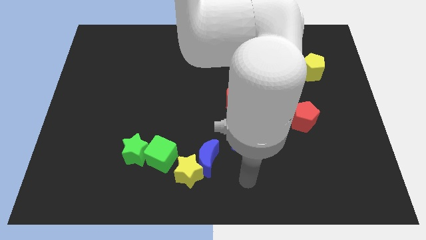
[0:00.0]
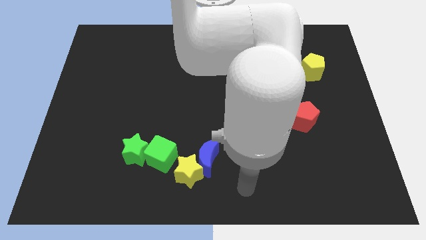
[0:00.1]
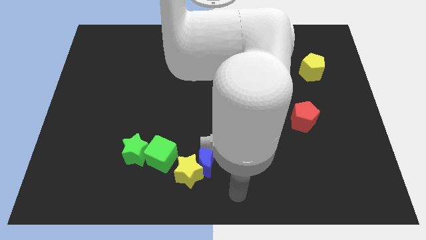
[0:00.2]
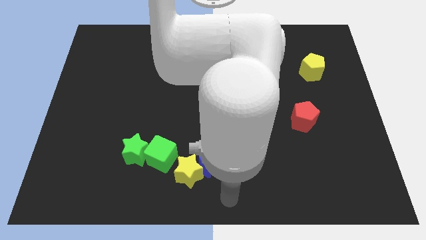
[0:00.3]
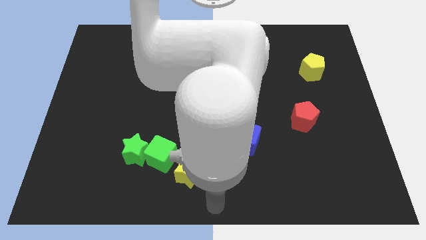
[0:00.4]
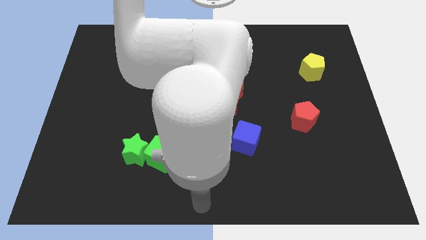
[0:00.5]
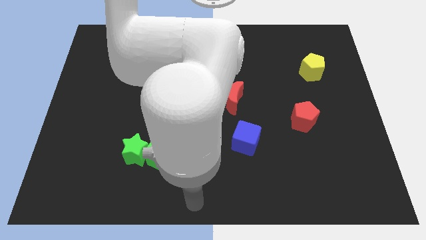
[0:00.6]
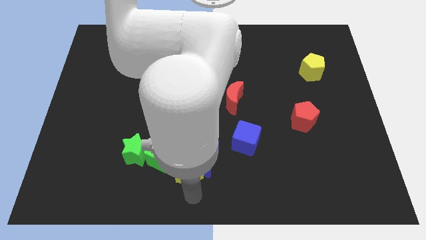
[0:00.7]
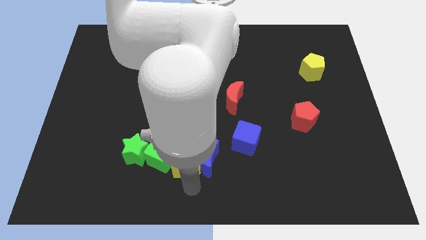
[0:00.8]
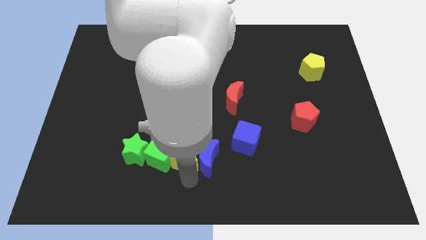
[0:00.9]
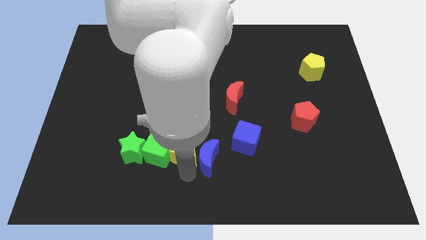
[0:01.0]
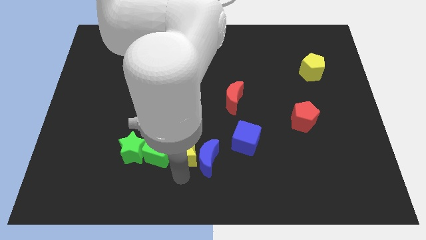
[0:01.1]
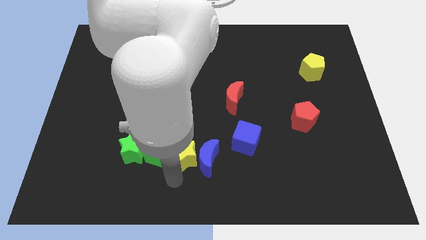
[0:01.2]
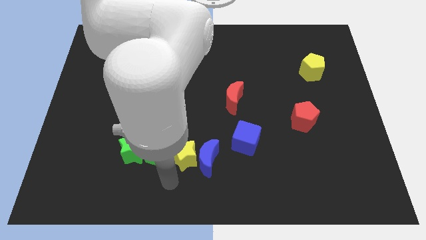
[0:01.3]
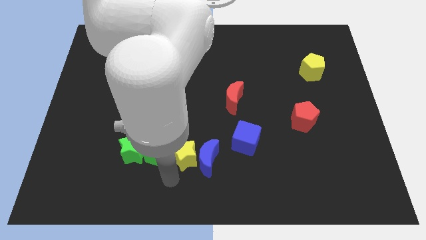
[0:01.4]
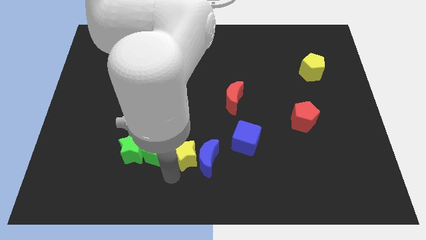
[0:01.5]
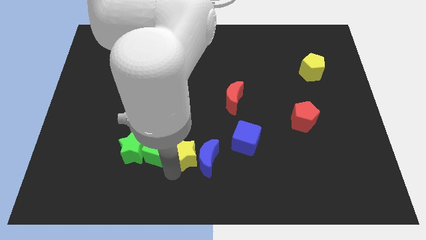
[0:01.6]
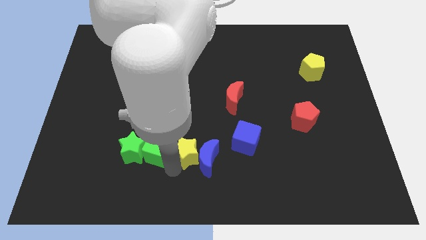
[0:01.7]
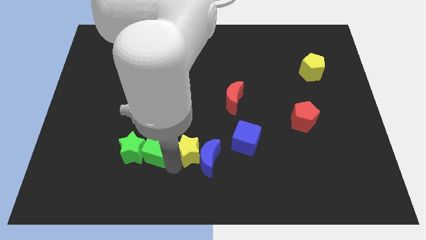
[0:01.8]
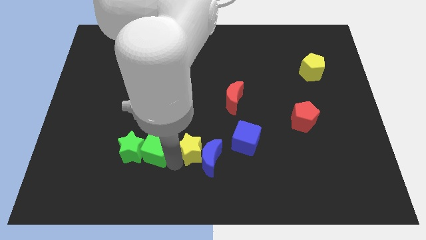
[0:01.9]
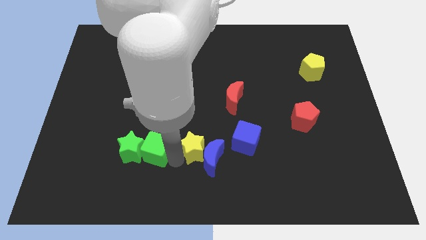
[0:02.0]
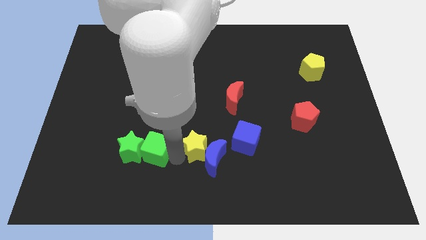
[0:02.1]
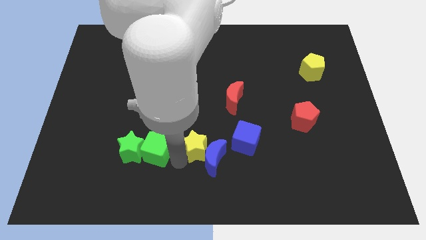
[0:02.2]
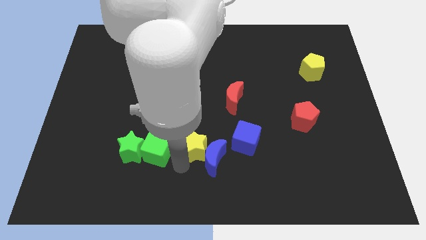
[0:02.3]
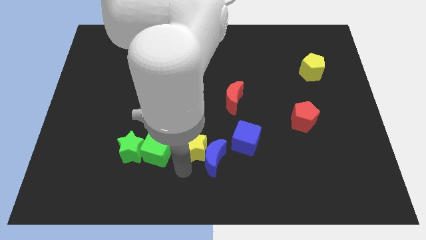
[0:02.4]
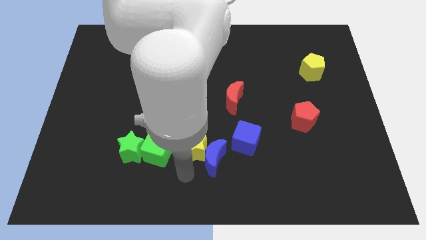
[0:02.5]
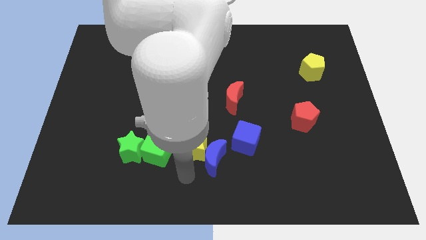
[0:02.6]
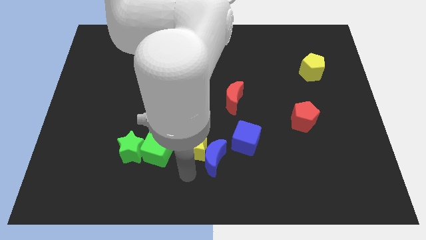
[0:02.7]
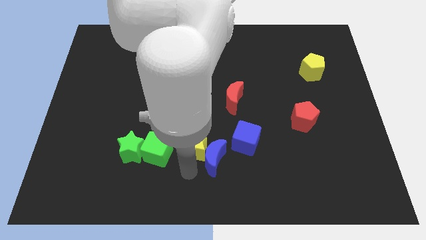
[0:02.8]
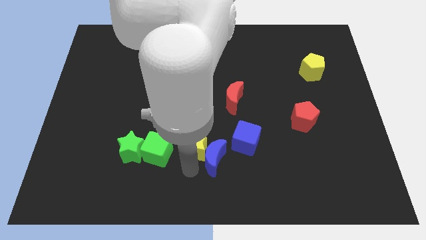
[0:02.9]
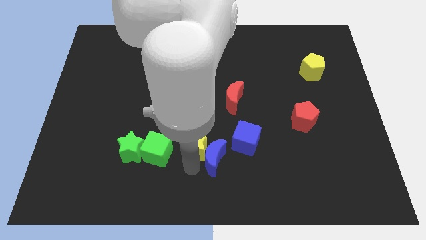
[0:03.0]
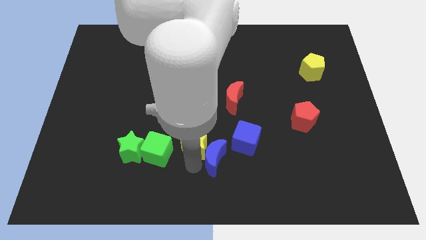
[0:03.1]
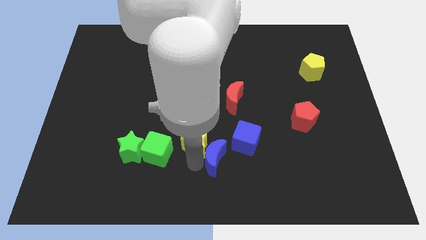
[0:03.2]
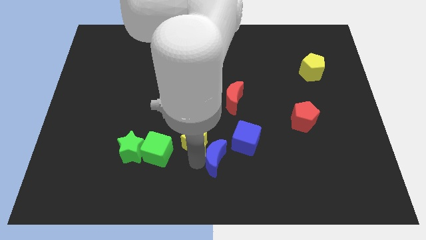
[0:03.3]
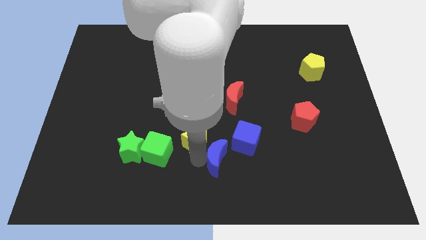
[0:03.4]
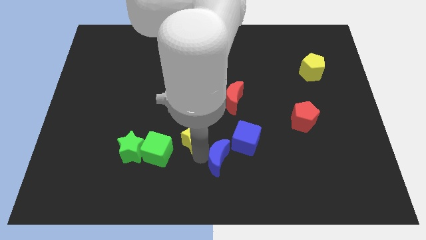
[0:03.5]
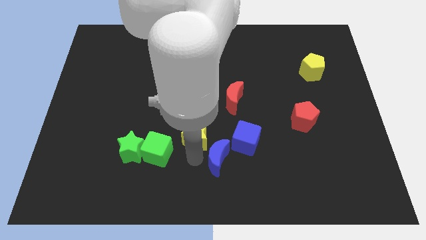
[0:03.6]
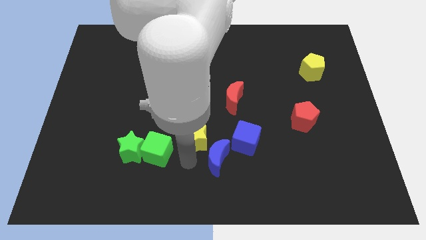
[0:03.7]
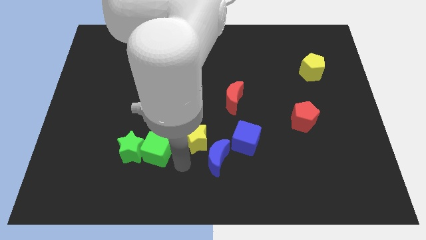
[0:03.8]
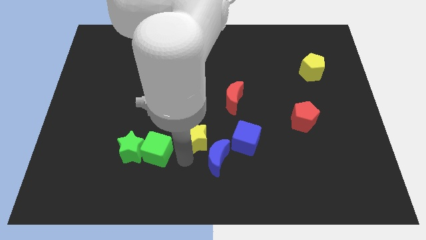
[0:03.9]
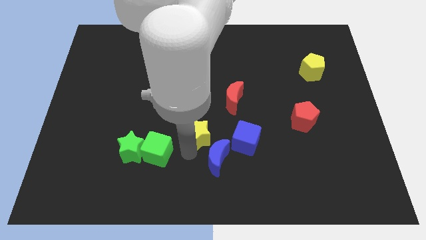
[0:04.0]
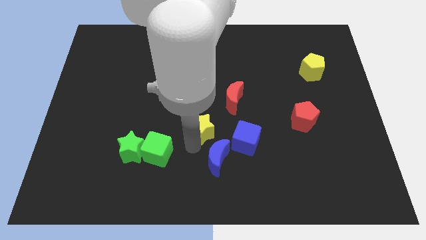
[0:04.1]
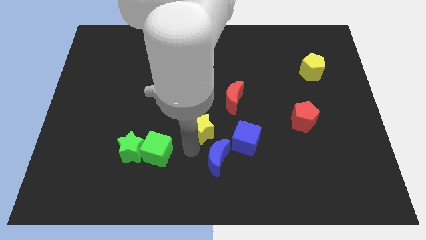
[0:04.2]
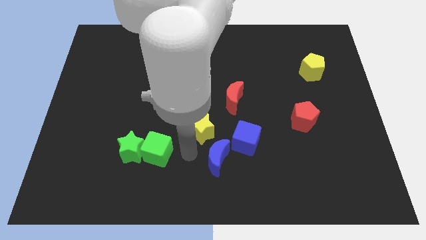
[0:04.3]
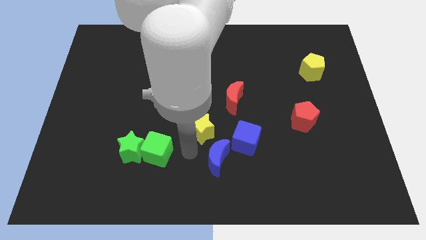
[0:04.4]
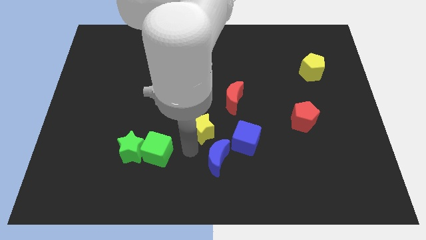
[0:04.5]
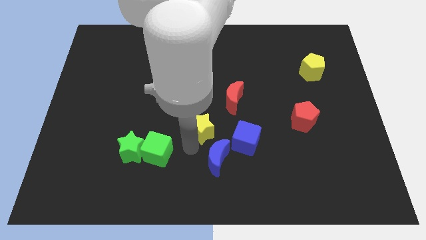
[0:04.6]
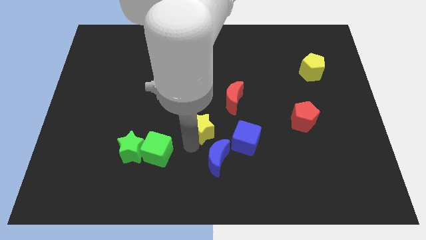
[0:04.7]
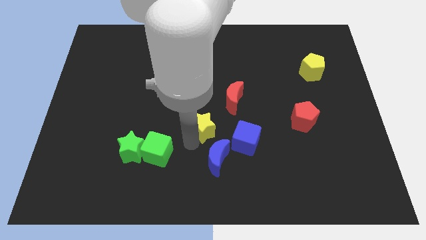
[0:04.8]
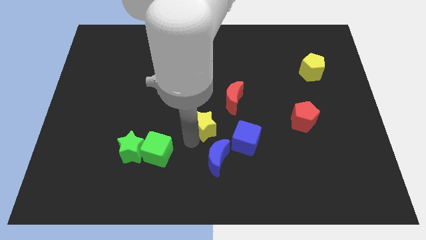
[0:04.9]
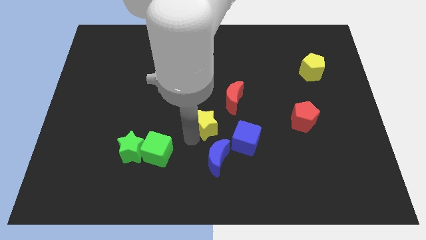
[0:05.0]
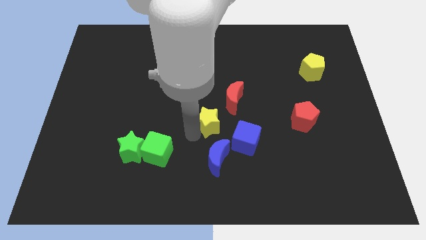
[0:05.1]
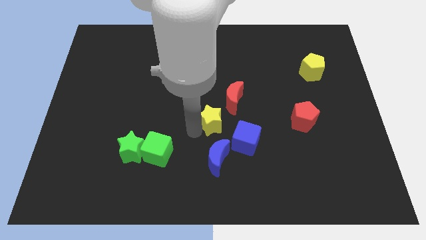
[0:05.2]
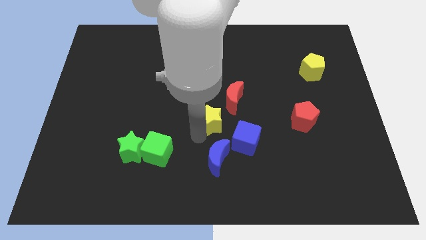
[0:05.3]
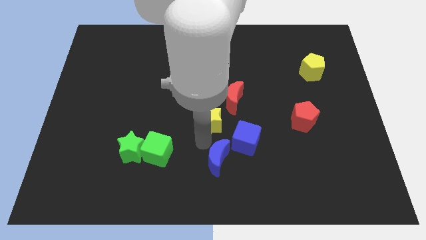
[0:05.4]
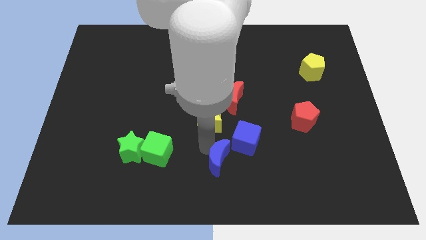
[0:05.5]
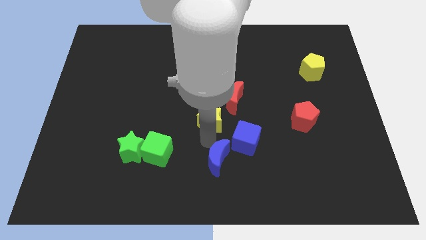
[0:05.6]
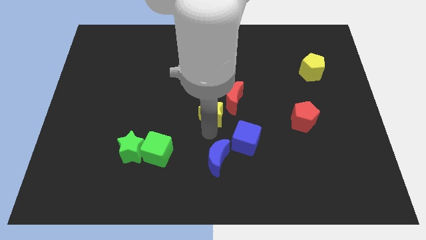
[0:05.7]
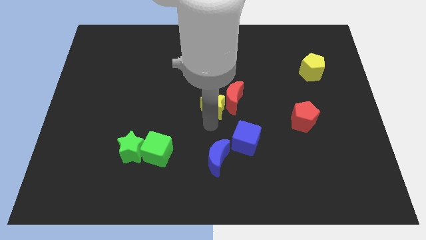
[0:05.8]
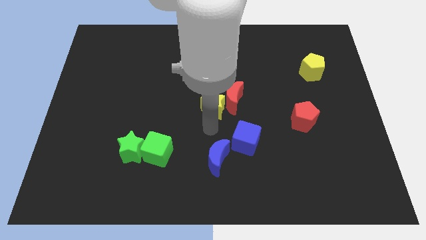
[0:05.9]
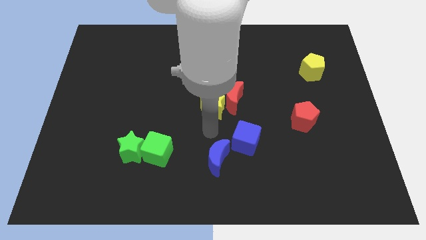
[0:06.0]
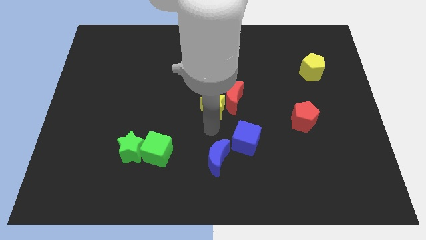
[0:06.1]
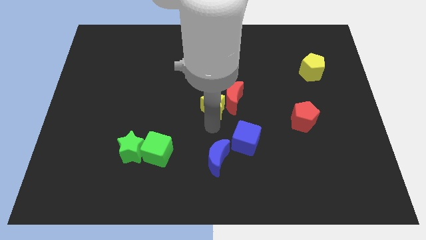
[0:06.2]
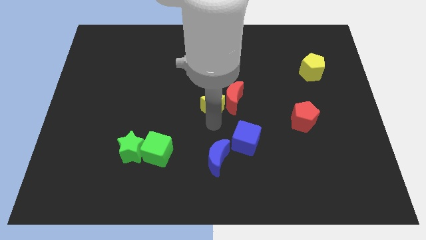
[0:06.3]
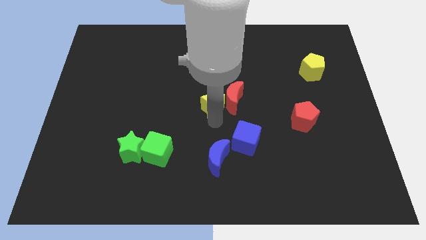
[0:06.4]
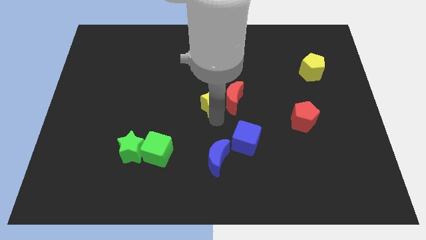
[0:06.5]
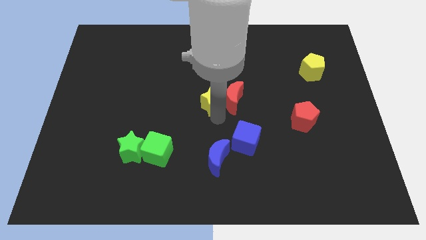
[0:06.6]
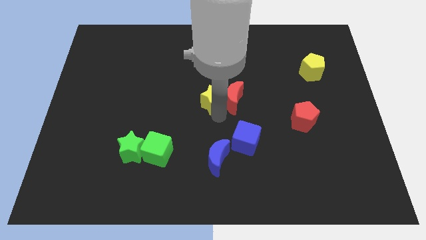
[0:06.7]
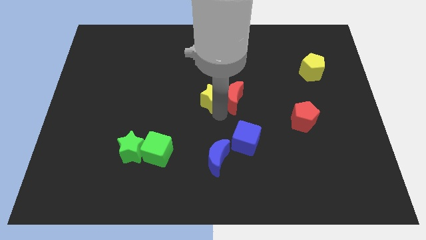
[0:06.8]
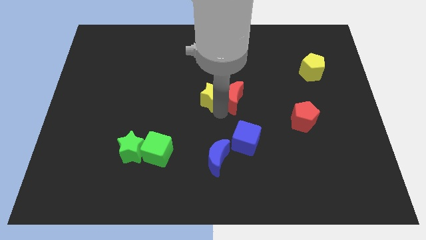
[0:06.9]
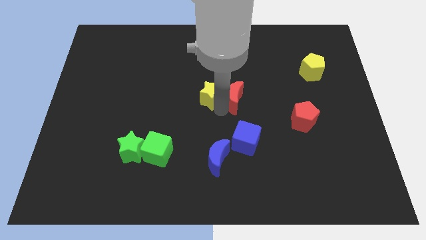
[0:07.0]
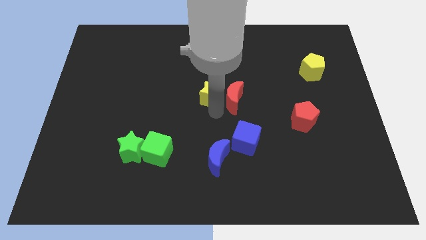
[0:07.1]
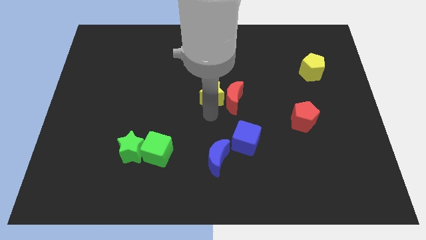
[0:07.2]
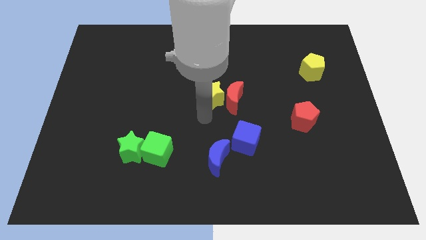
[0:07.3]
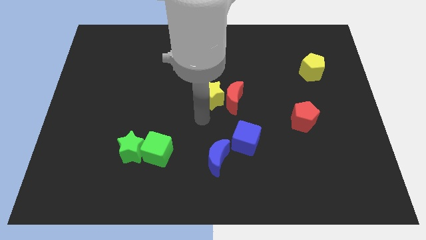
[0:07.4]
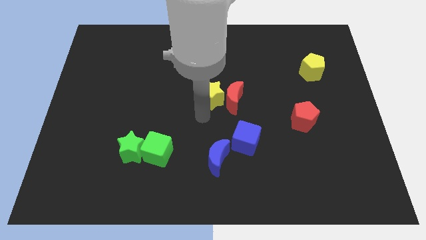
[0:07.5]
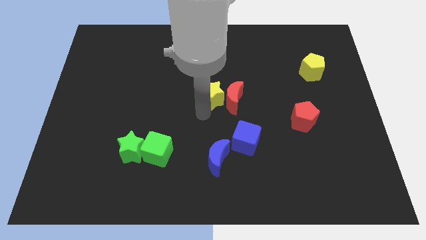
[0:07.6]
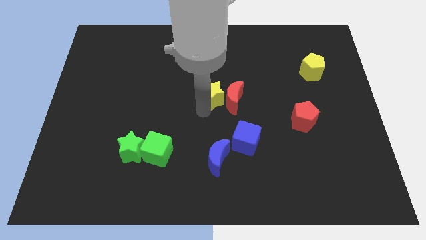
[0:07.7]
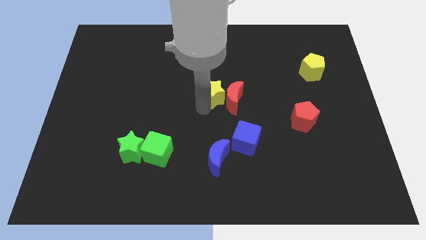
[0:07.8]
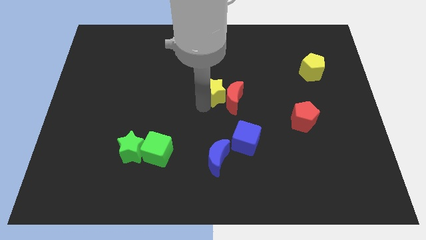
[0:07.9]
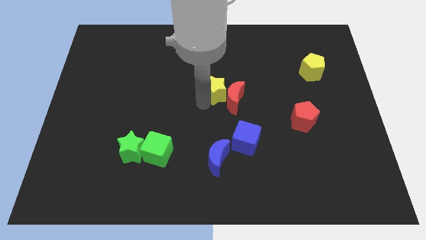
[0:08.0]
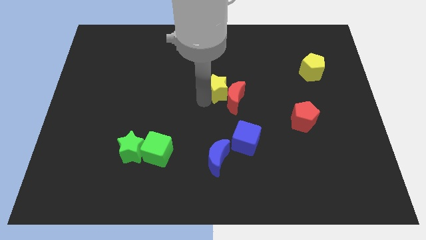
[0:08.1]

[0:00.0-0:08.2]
slide the yellow star above the red moon
